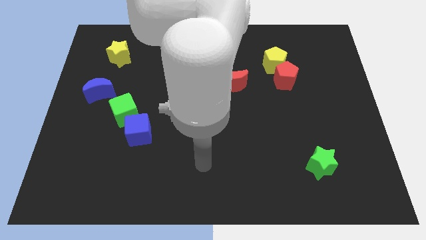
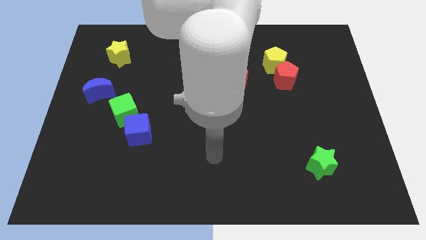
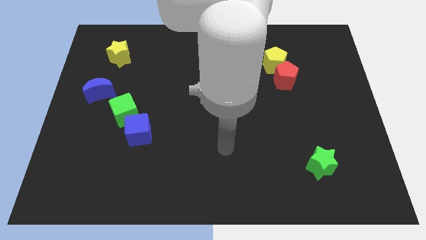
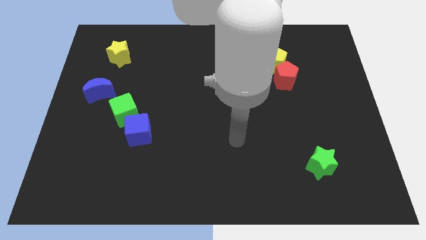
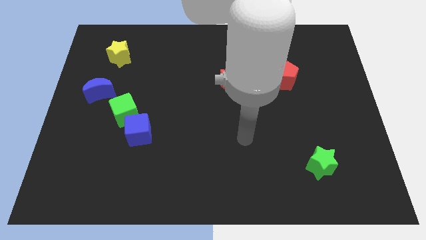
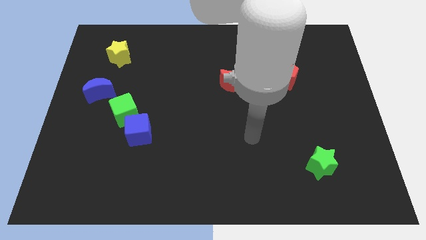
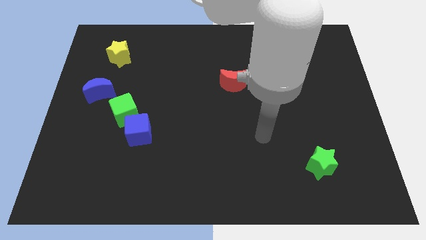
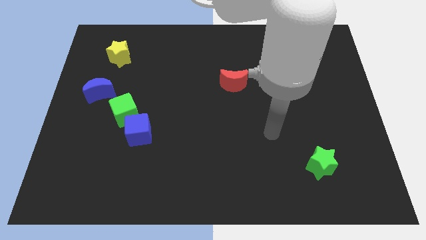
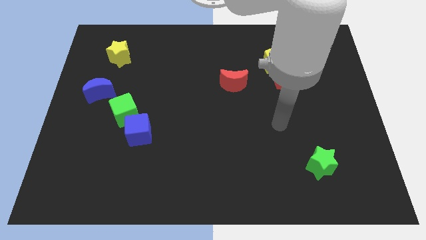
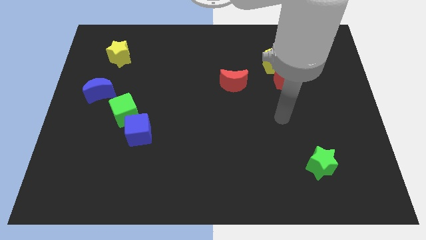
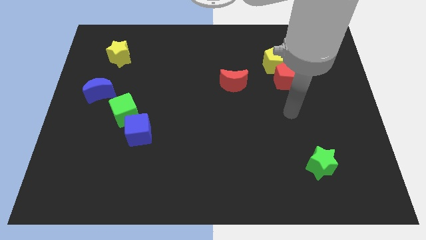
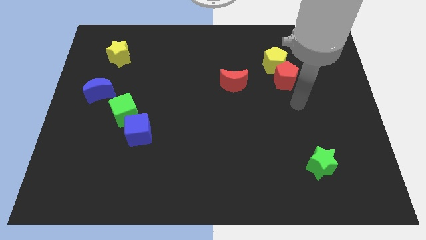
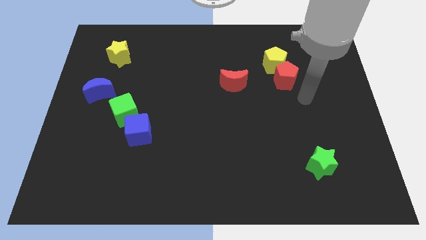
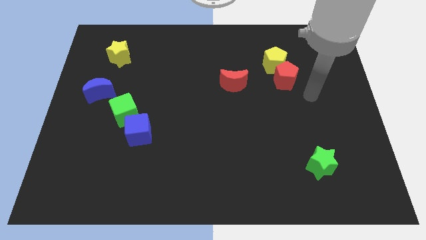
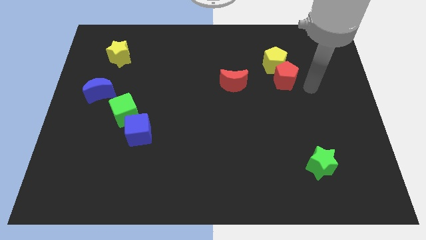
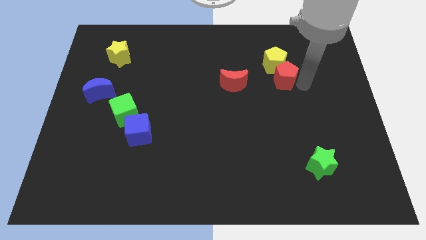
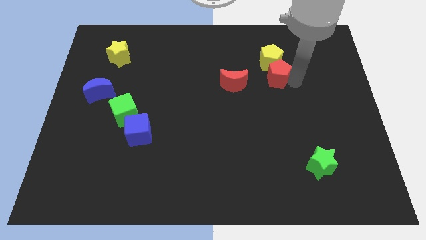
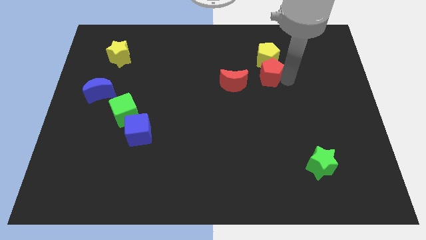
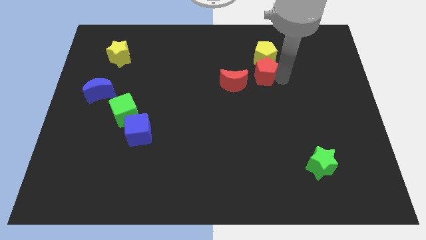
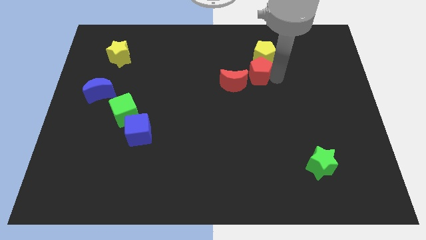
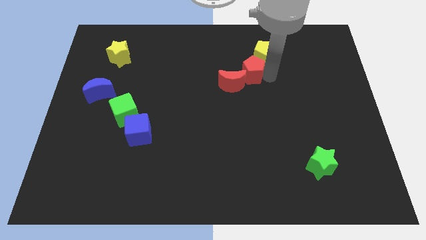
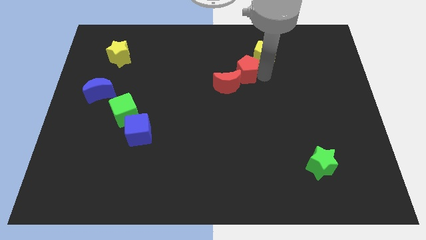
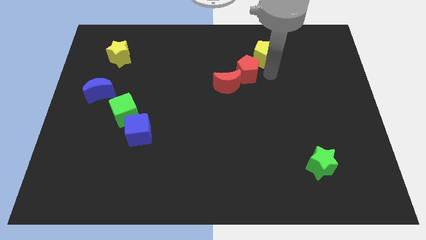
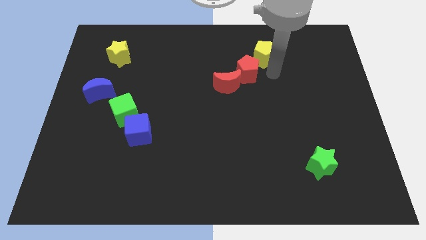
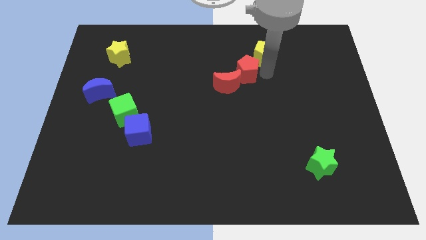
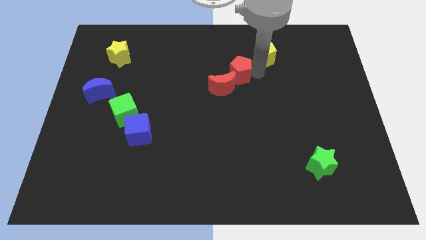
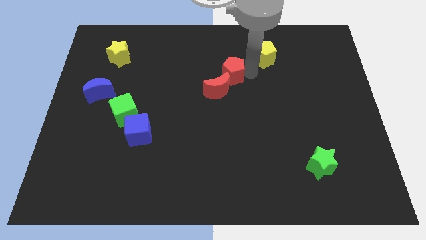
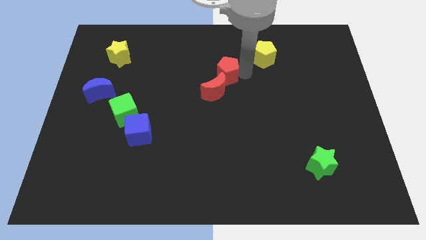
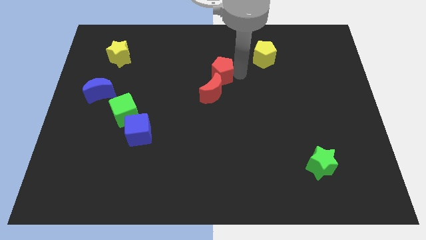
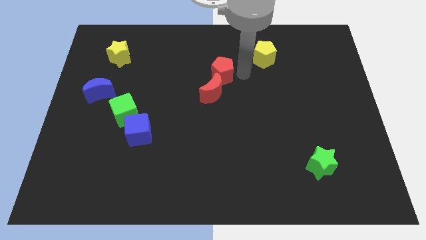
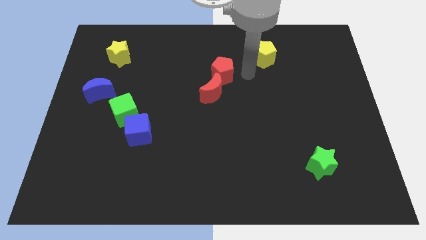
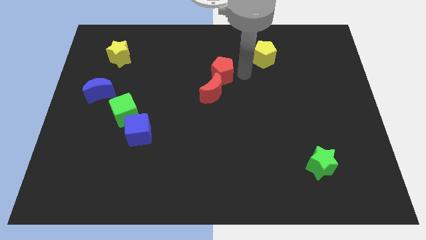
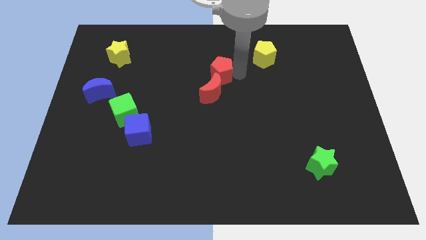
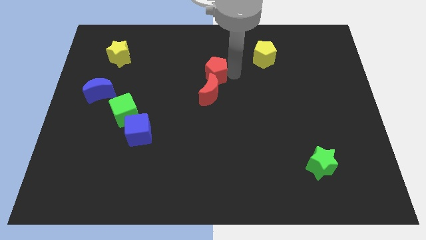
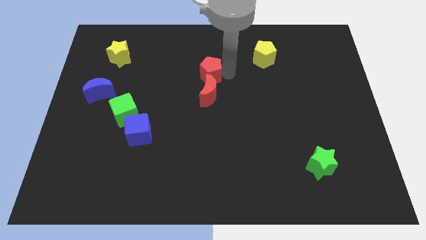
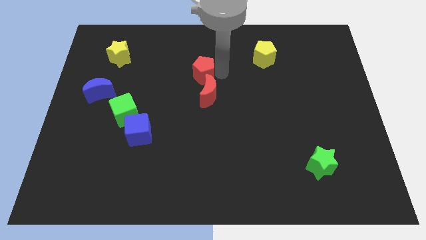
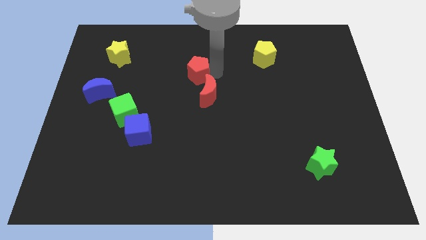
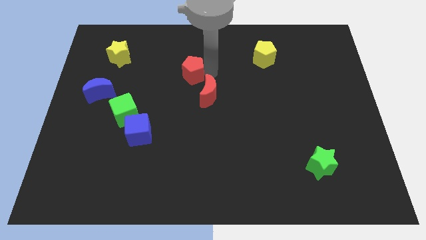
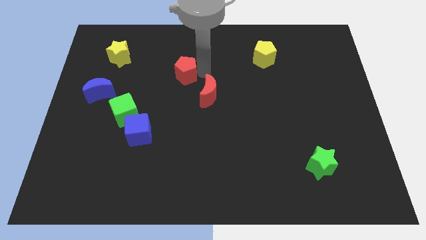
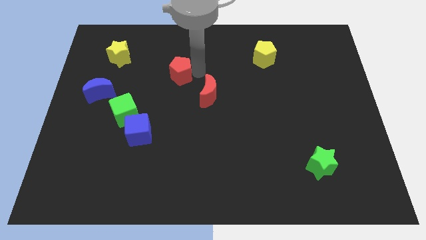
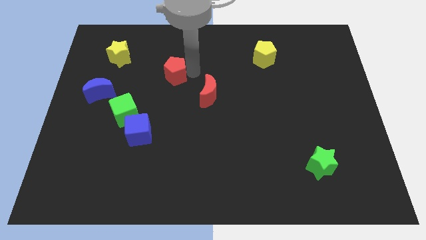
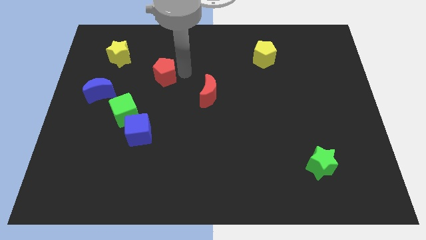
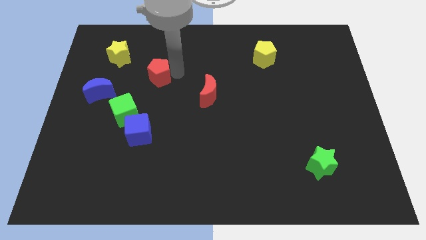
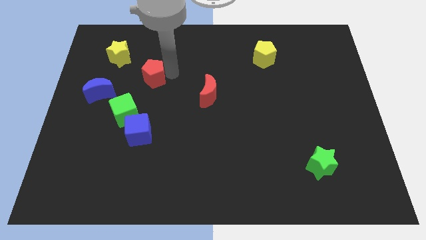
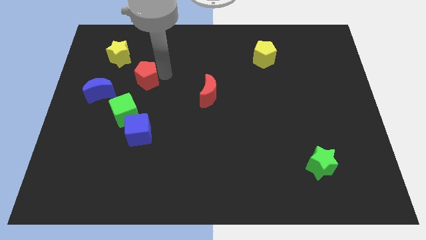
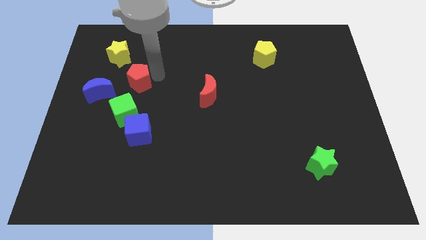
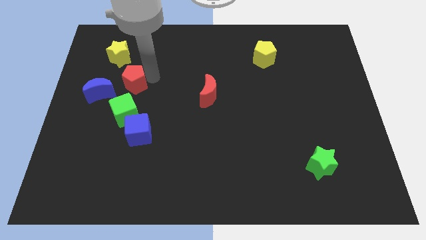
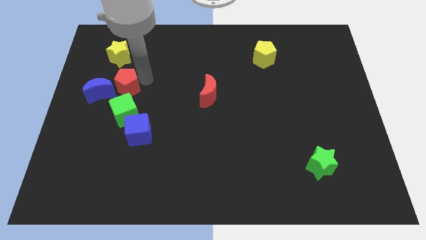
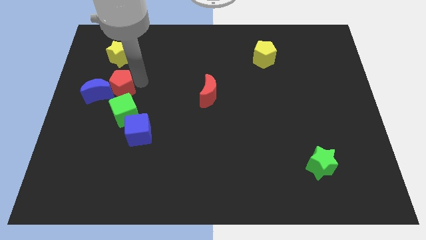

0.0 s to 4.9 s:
move the red pentagon close to the blue moon

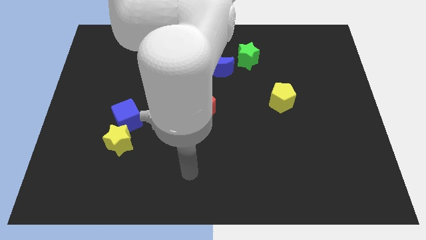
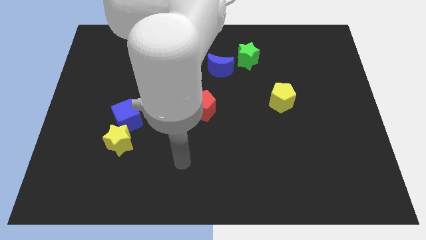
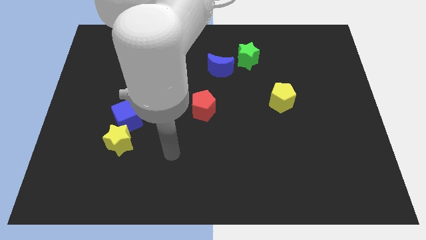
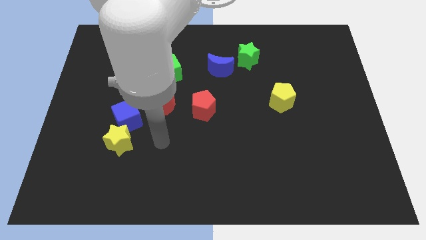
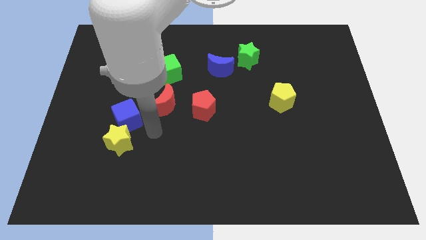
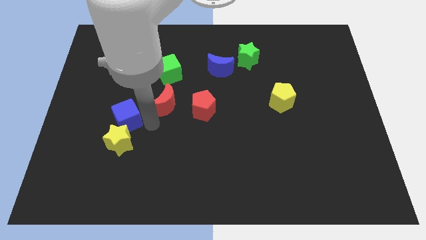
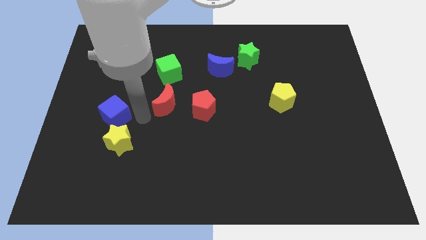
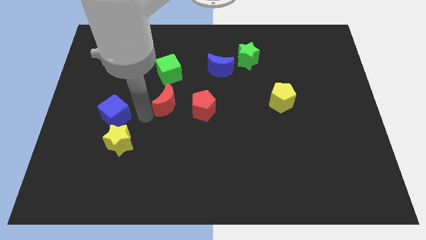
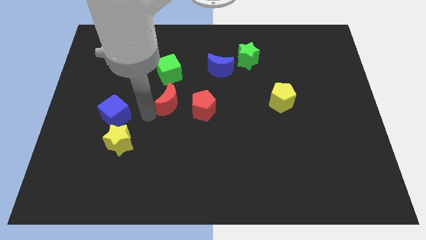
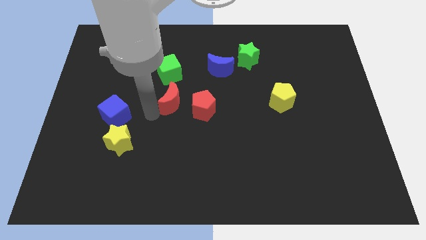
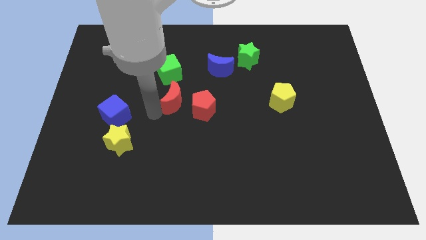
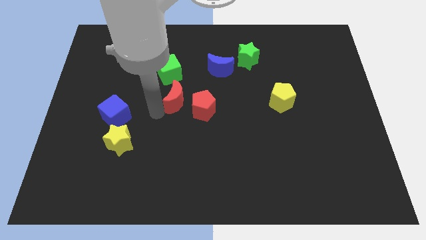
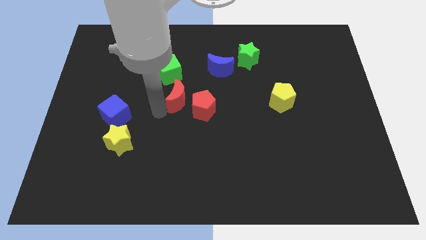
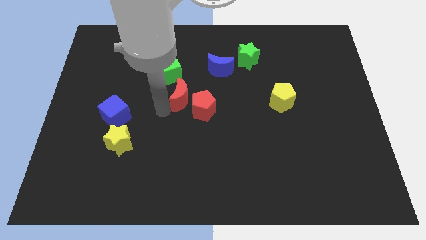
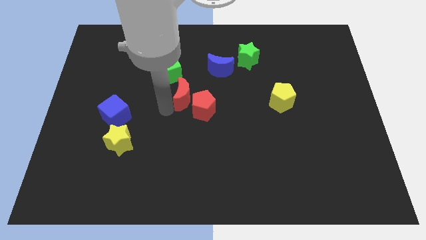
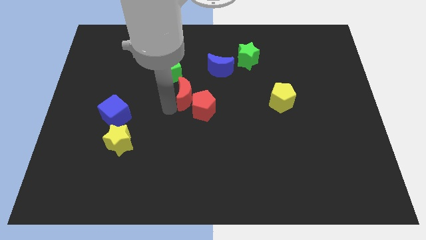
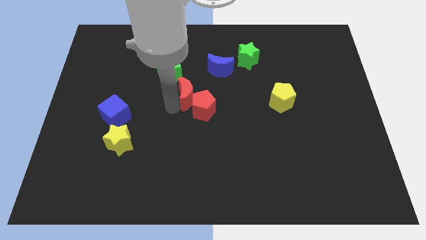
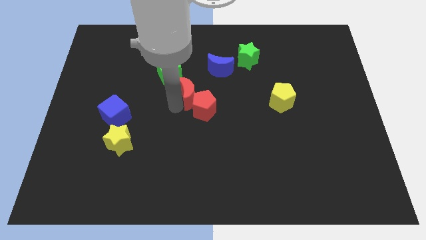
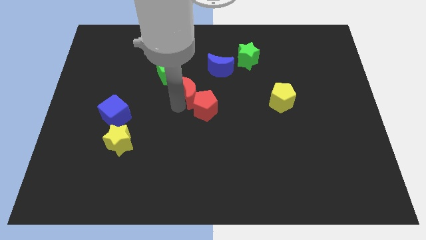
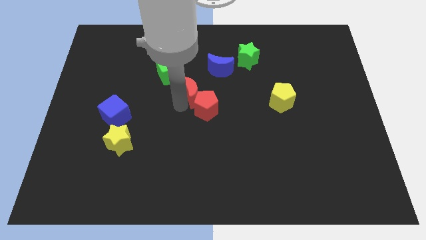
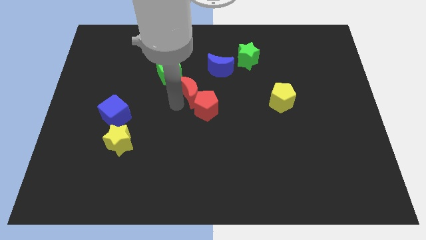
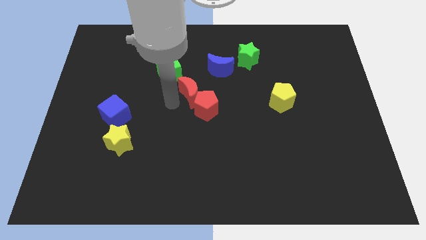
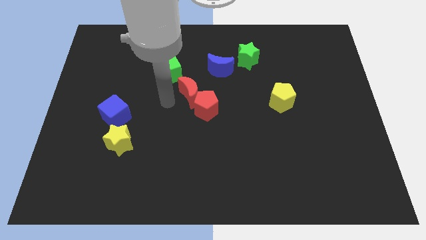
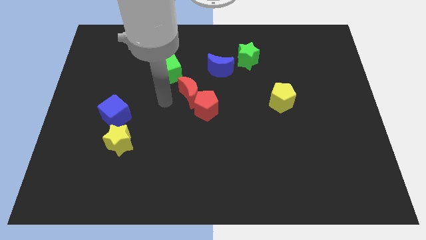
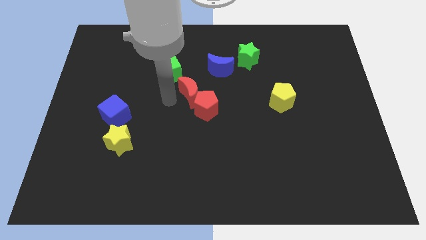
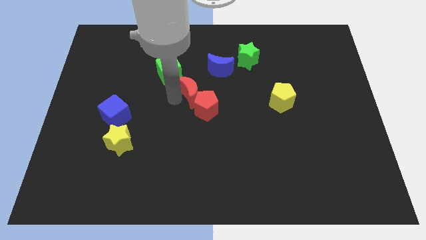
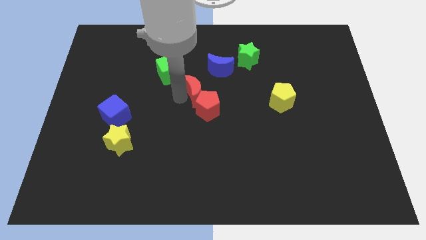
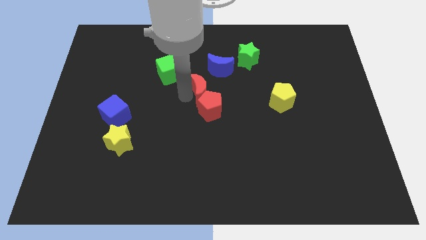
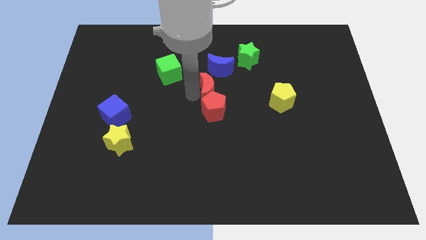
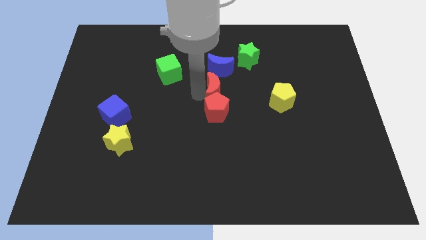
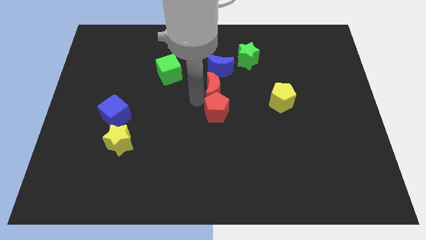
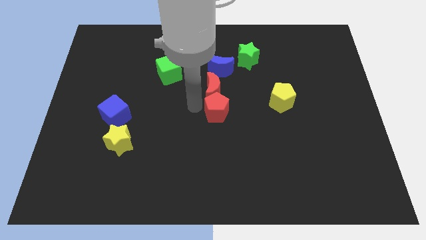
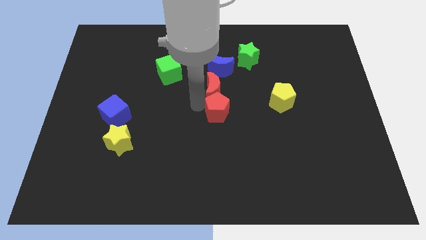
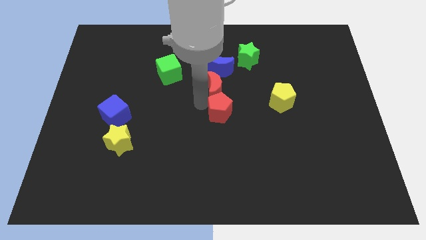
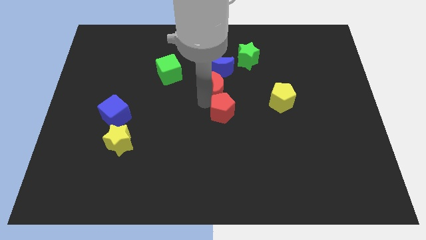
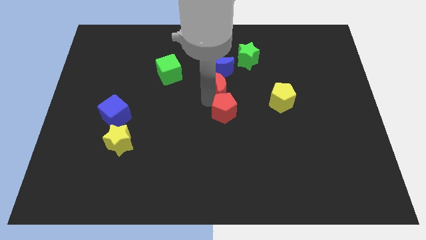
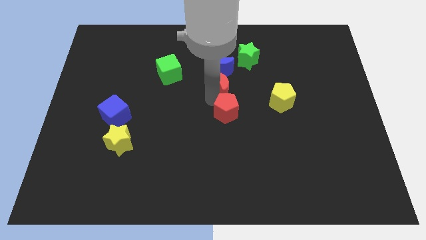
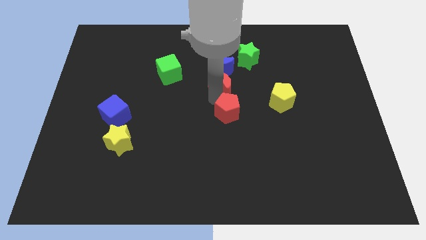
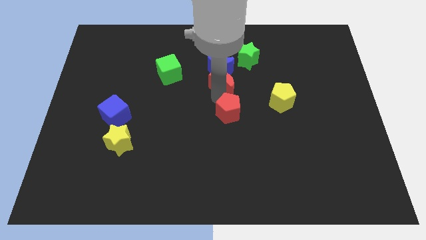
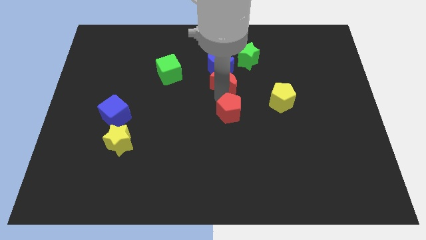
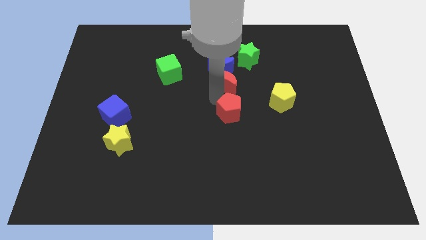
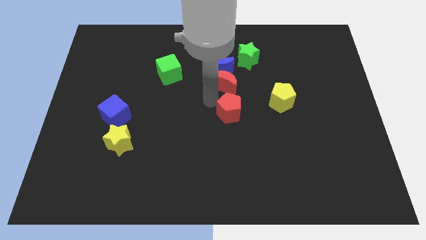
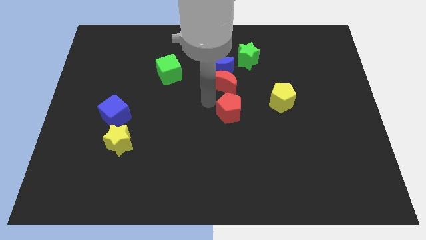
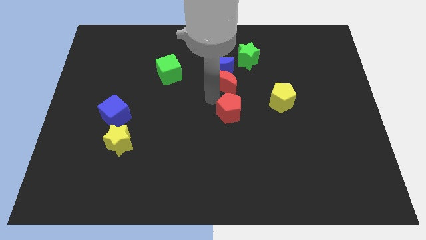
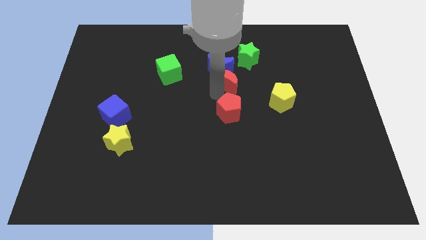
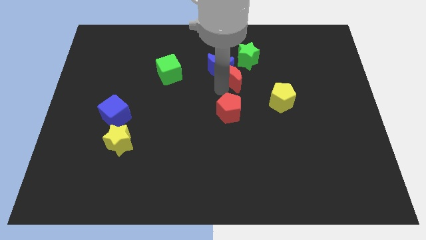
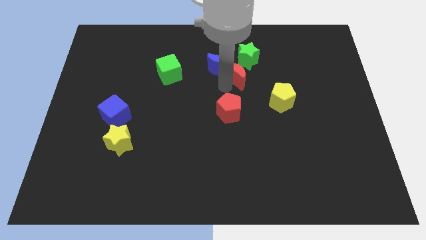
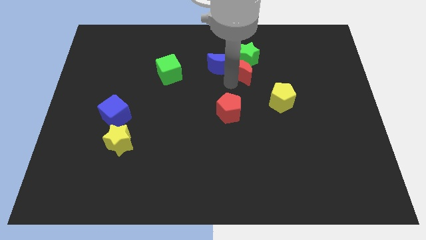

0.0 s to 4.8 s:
put the red moon next to the green star
